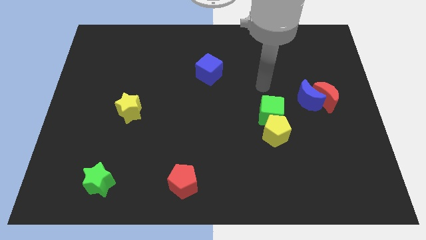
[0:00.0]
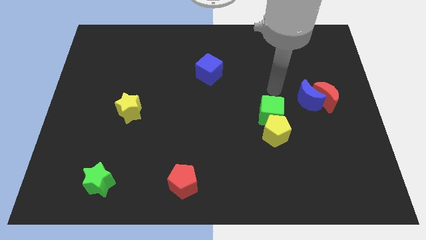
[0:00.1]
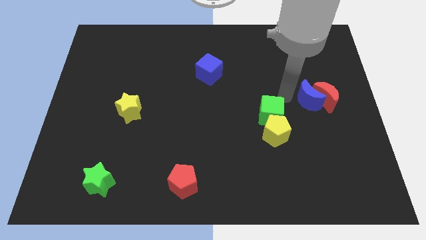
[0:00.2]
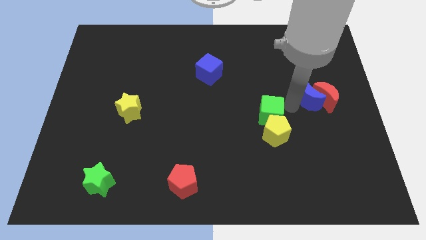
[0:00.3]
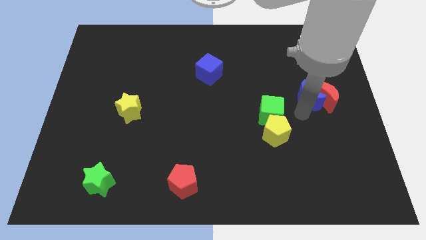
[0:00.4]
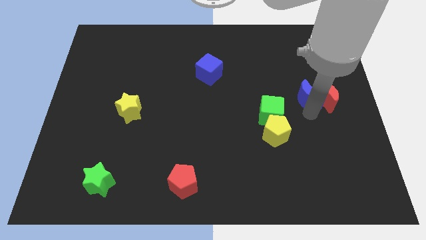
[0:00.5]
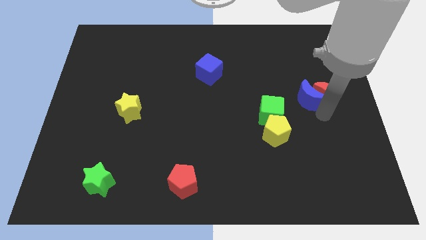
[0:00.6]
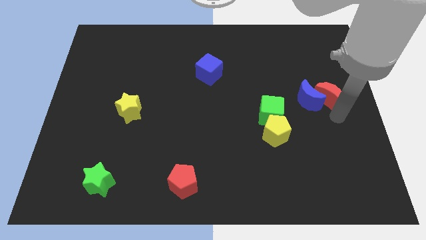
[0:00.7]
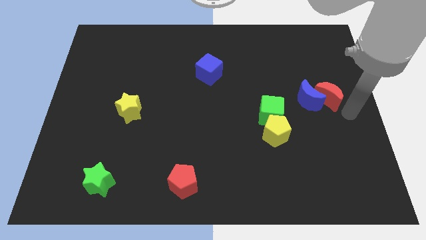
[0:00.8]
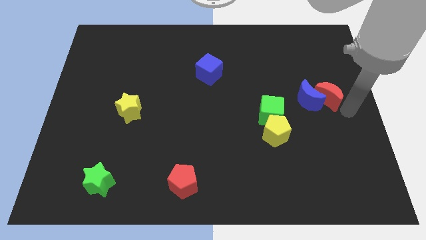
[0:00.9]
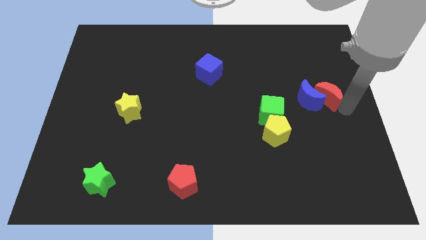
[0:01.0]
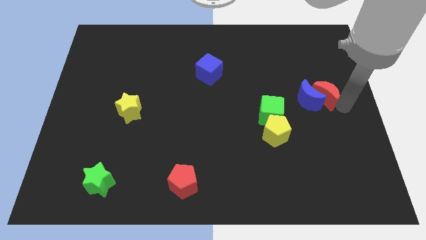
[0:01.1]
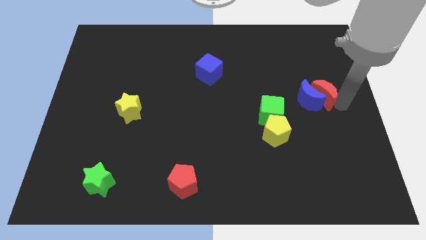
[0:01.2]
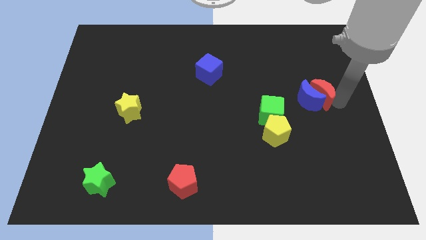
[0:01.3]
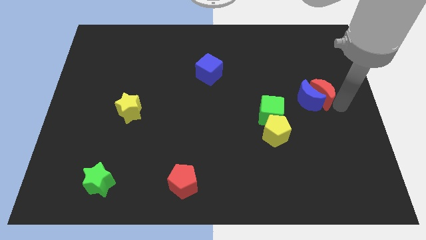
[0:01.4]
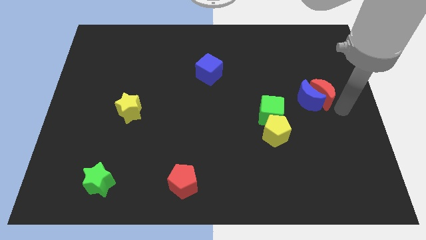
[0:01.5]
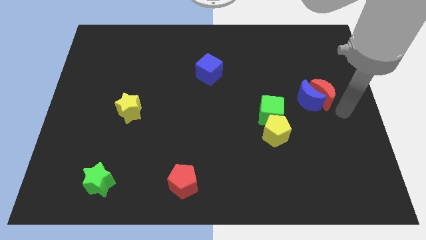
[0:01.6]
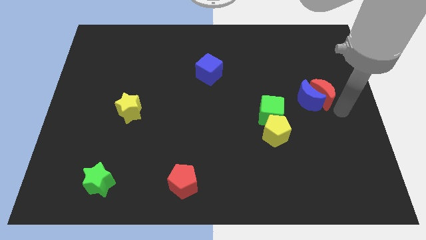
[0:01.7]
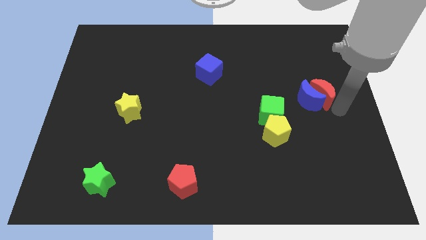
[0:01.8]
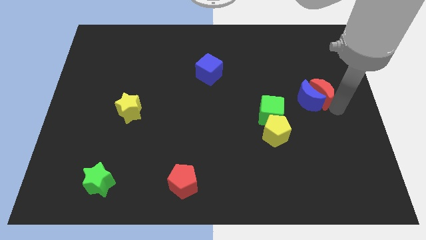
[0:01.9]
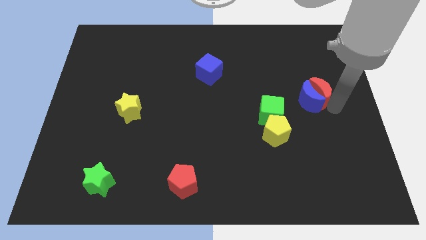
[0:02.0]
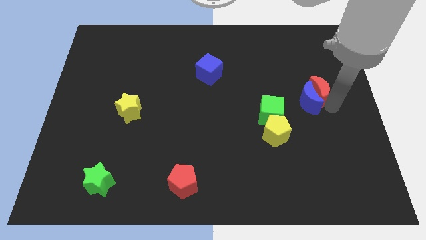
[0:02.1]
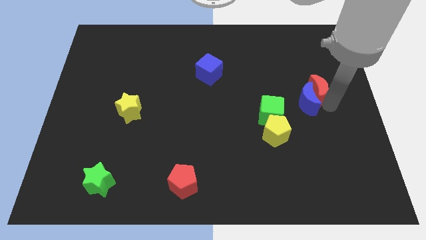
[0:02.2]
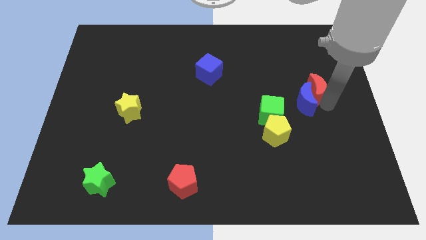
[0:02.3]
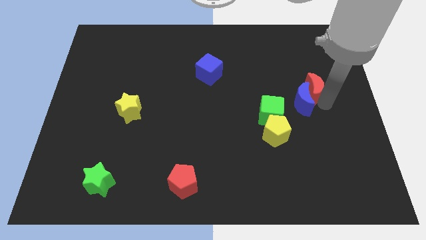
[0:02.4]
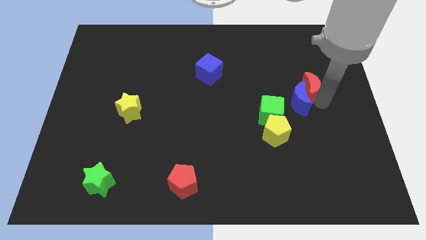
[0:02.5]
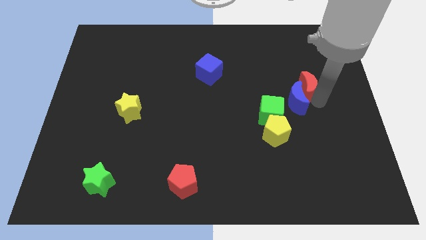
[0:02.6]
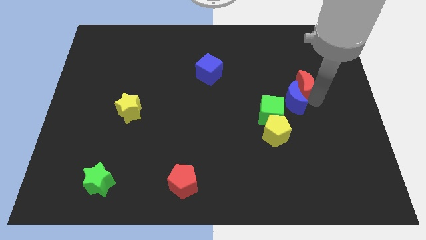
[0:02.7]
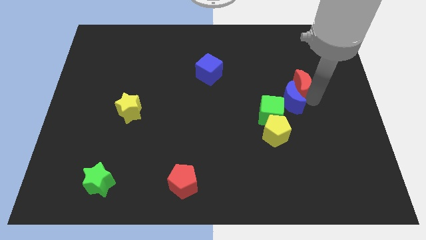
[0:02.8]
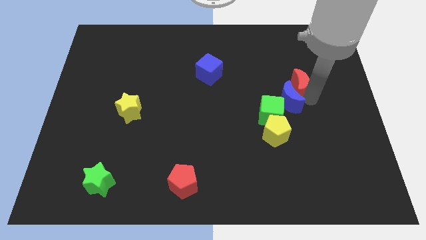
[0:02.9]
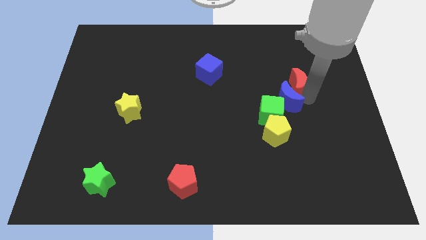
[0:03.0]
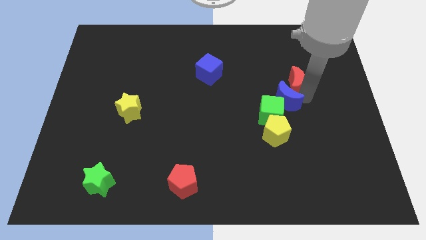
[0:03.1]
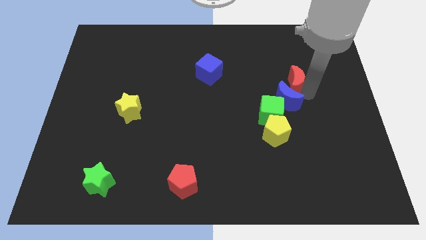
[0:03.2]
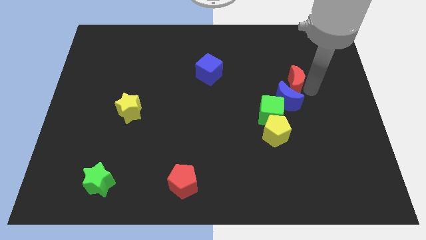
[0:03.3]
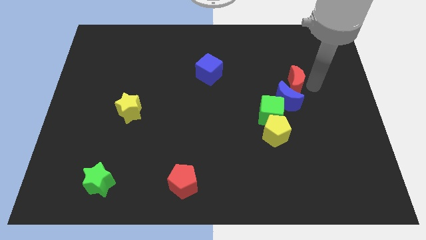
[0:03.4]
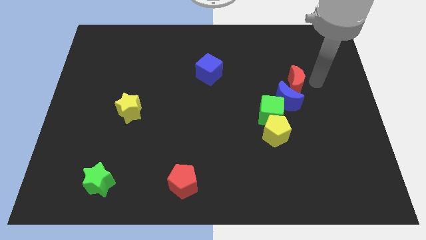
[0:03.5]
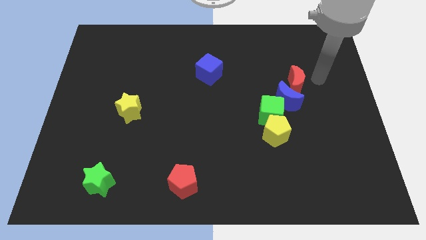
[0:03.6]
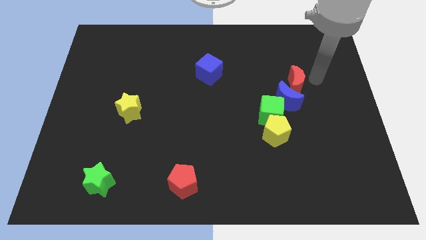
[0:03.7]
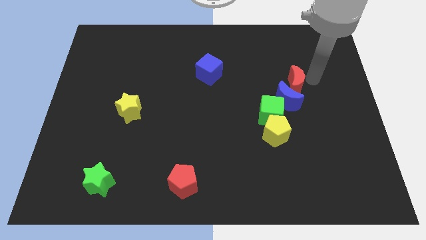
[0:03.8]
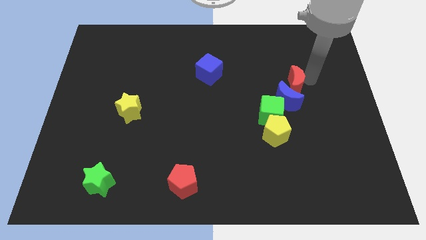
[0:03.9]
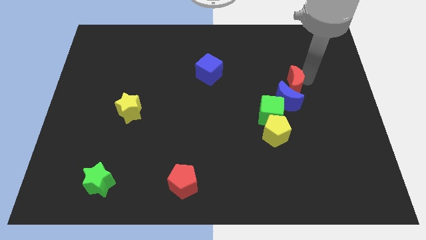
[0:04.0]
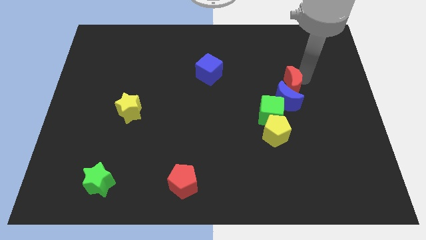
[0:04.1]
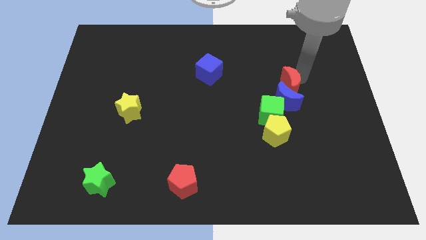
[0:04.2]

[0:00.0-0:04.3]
slightly slide the red moon left

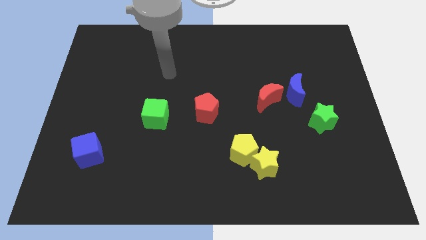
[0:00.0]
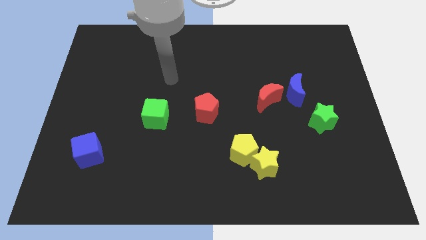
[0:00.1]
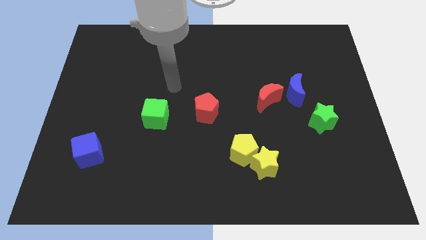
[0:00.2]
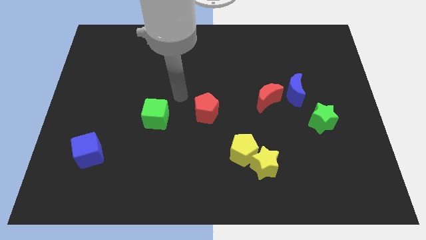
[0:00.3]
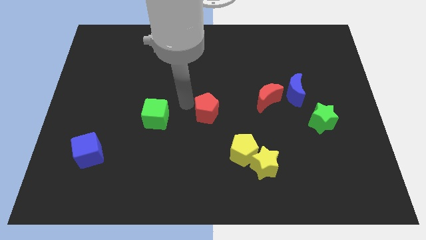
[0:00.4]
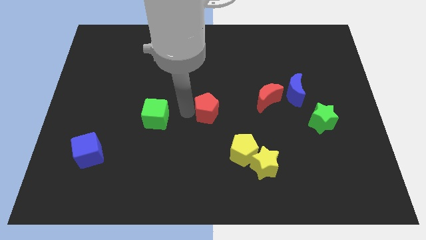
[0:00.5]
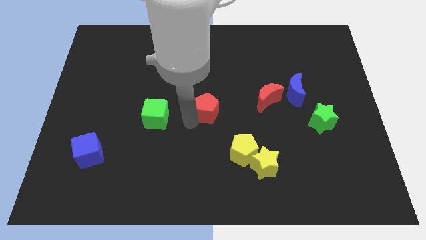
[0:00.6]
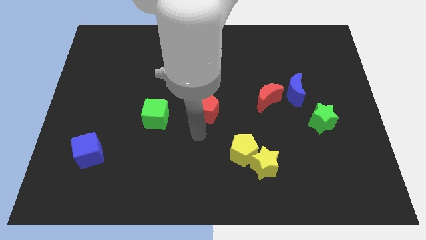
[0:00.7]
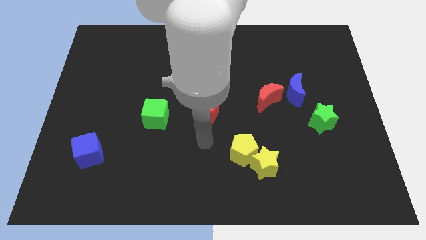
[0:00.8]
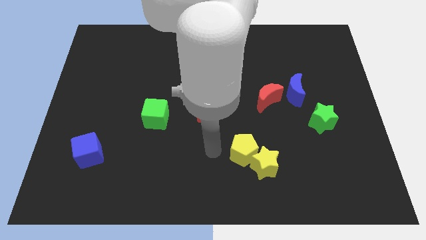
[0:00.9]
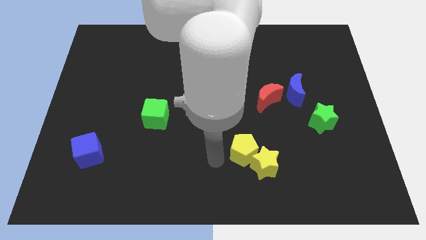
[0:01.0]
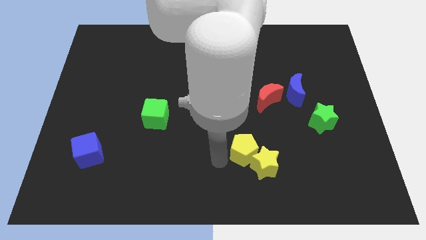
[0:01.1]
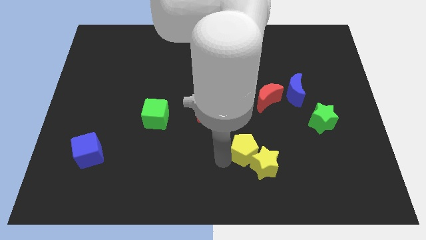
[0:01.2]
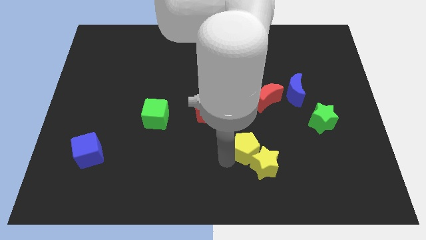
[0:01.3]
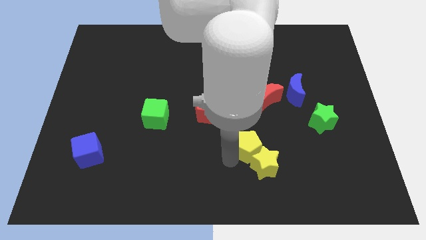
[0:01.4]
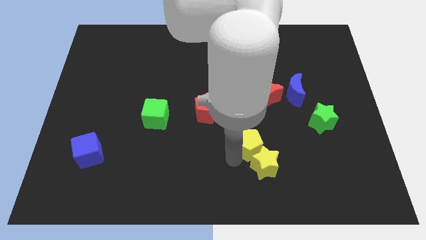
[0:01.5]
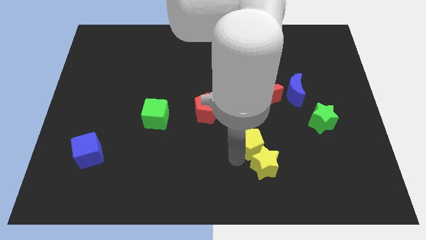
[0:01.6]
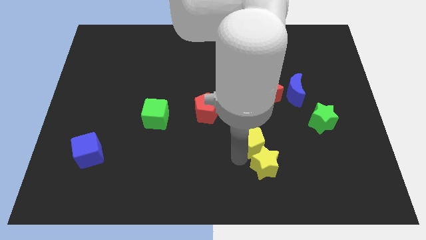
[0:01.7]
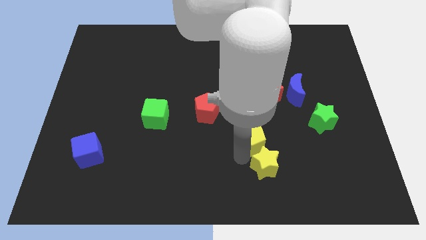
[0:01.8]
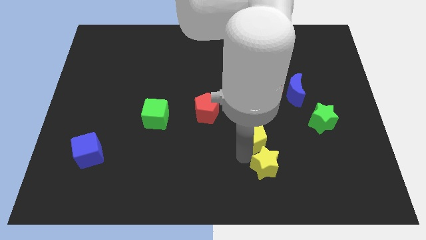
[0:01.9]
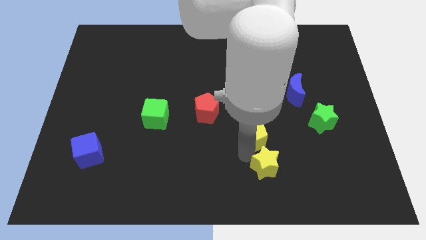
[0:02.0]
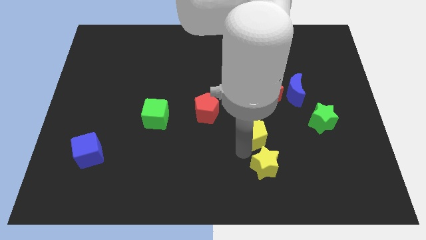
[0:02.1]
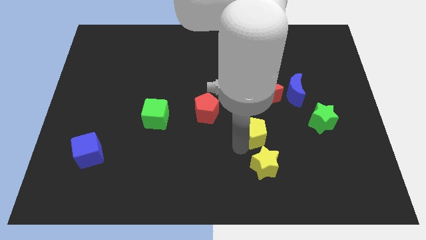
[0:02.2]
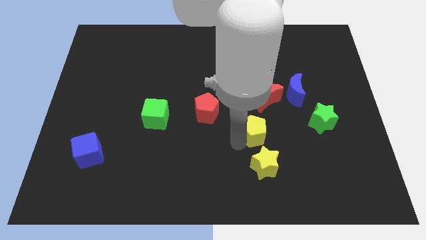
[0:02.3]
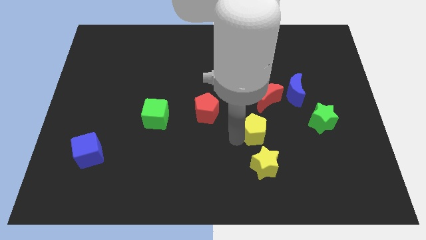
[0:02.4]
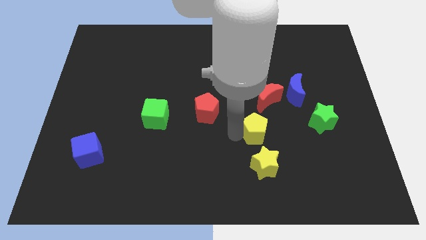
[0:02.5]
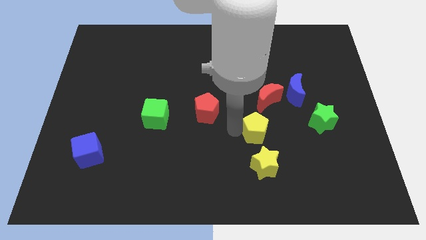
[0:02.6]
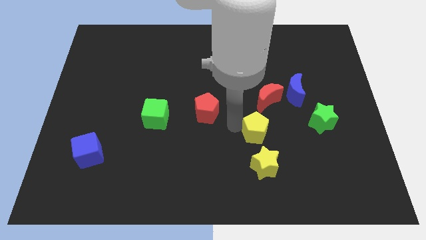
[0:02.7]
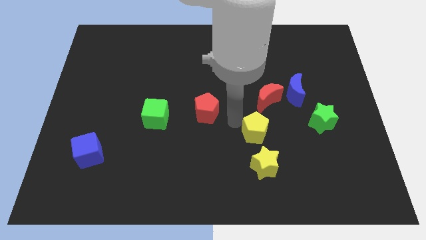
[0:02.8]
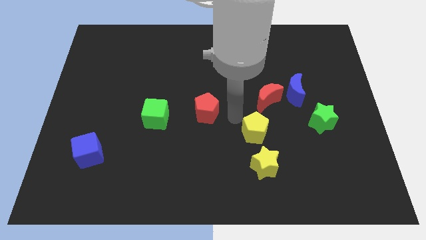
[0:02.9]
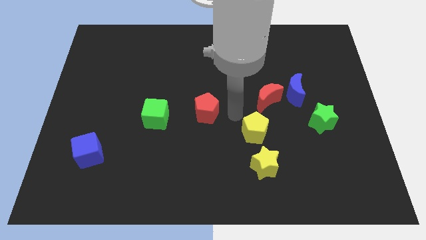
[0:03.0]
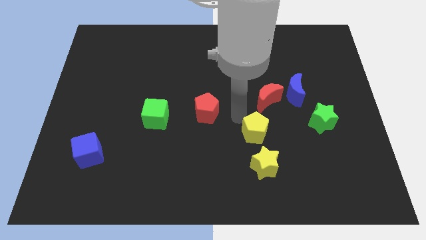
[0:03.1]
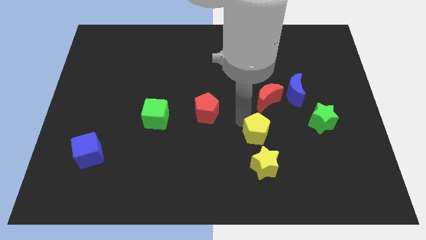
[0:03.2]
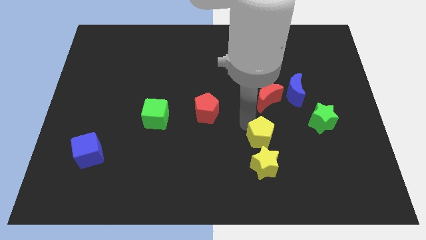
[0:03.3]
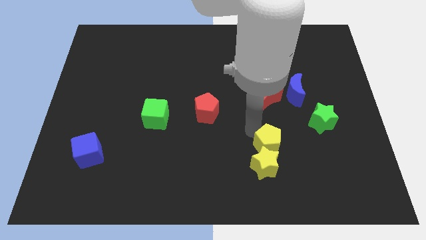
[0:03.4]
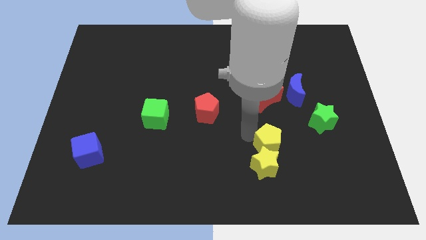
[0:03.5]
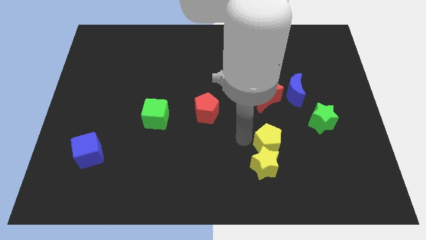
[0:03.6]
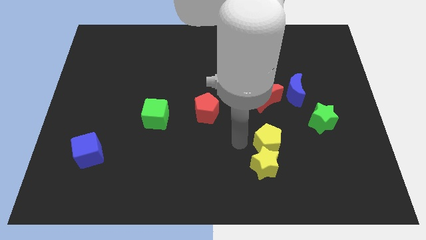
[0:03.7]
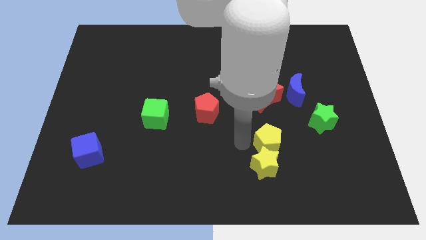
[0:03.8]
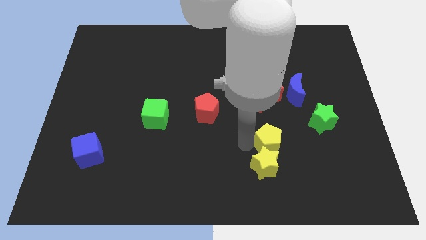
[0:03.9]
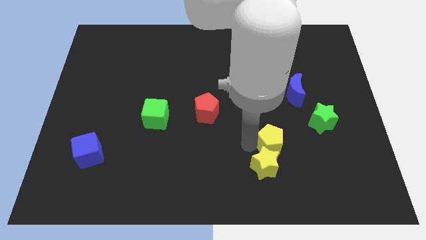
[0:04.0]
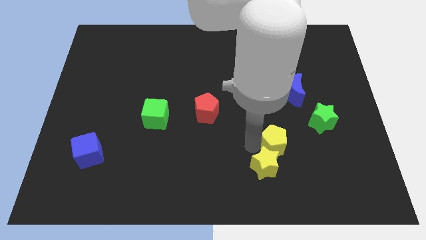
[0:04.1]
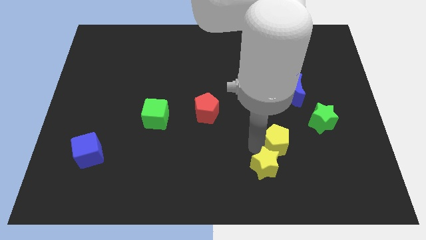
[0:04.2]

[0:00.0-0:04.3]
slide the yellow pentagon a bit right
